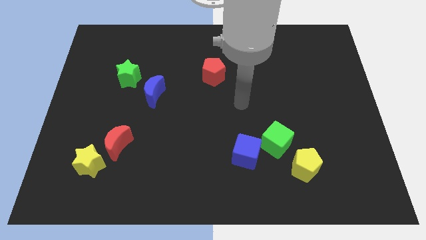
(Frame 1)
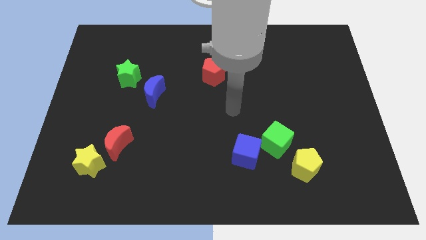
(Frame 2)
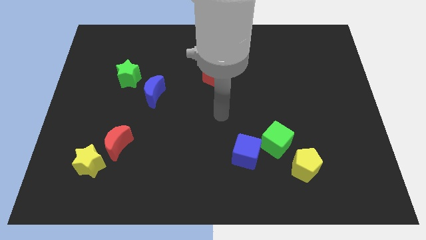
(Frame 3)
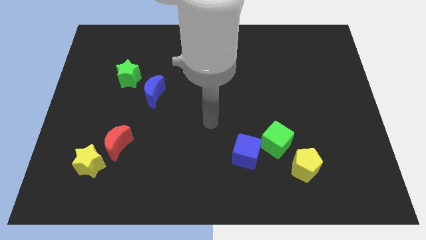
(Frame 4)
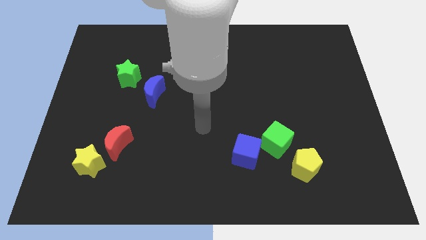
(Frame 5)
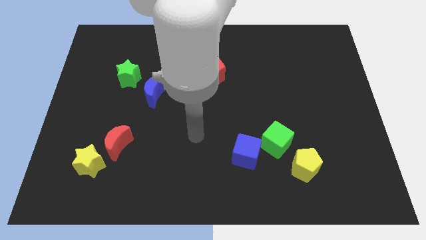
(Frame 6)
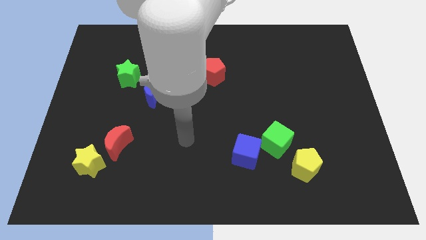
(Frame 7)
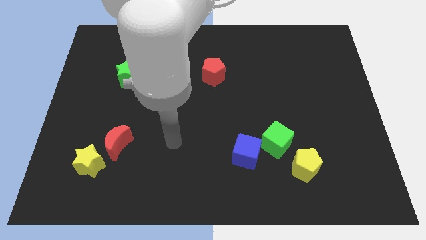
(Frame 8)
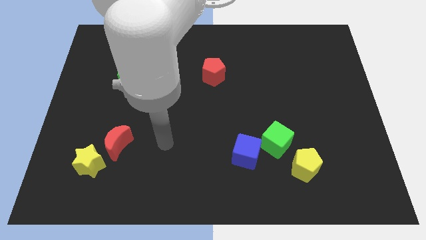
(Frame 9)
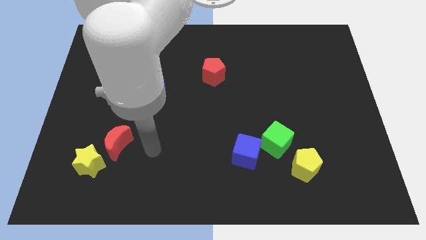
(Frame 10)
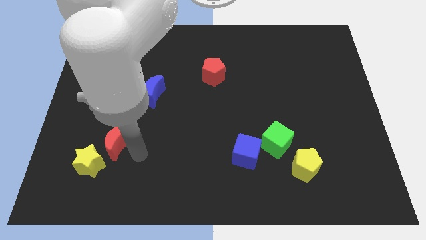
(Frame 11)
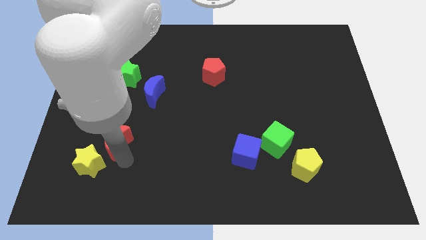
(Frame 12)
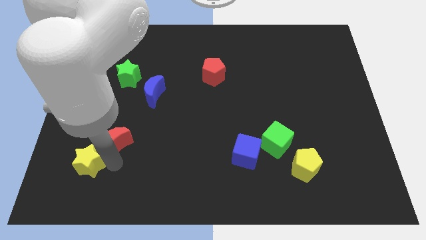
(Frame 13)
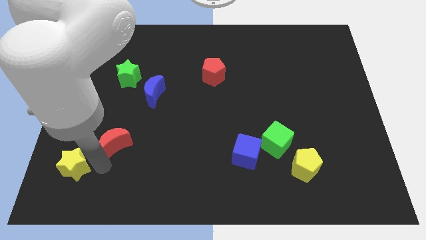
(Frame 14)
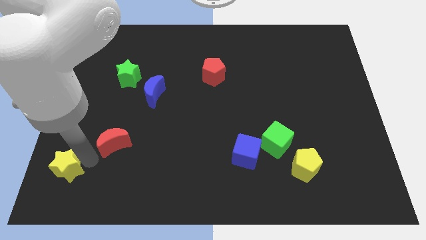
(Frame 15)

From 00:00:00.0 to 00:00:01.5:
pull the red moon apart from the yellow star

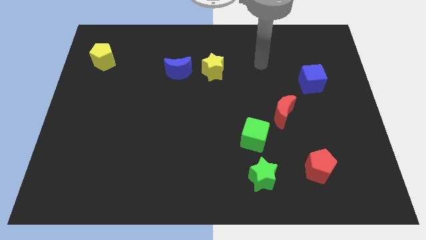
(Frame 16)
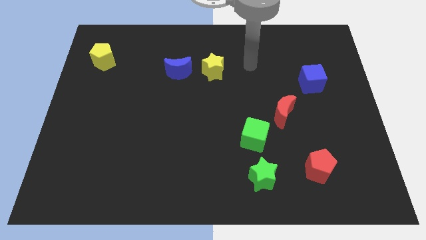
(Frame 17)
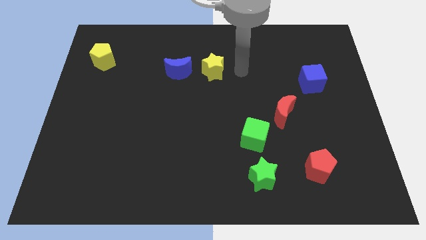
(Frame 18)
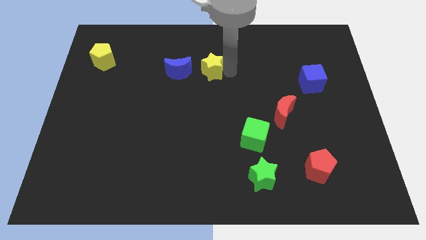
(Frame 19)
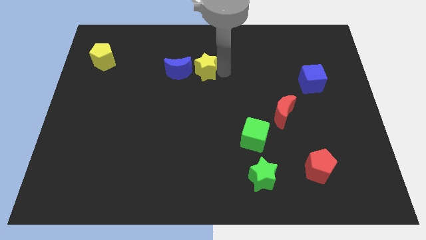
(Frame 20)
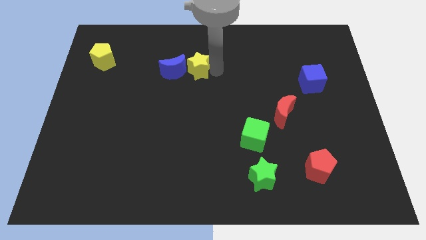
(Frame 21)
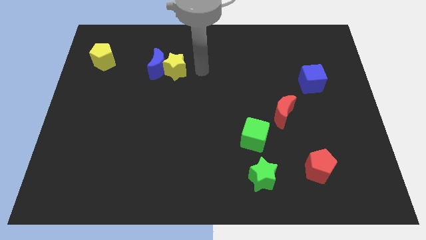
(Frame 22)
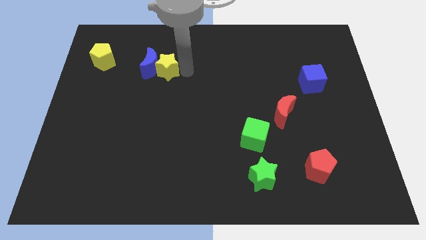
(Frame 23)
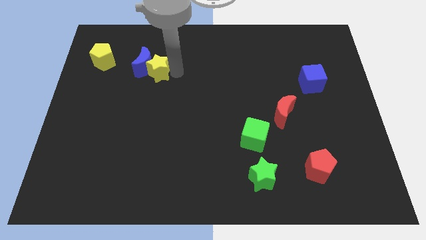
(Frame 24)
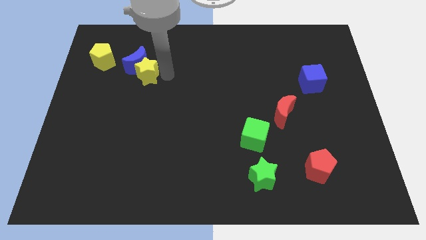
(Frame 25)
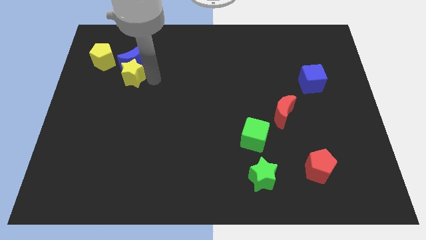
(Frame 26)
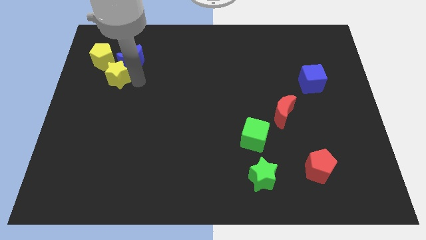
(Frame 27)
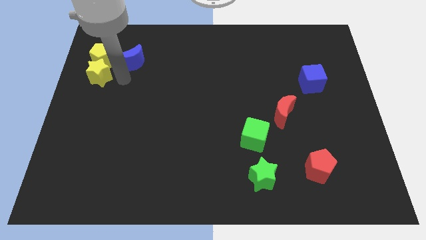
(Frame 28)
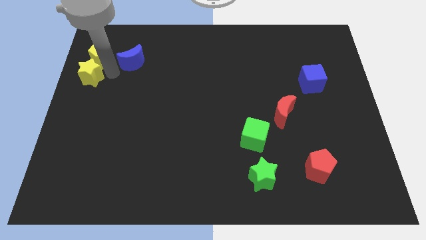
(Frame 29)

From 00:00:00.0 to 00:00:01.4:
separate the blue moon from the yellow star

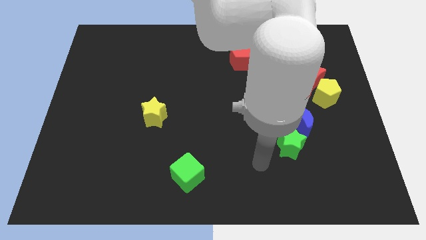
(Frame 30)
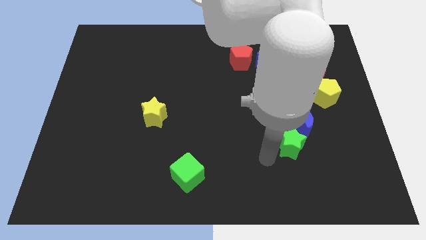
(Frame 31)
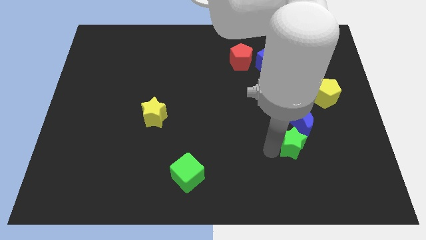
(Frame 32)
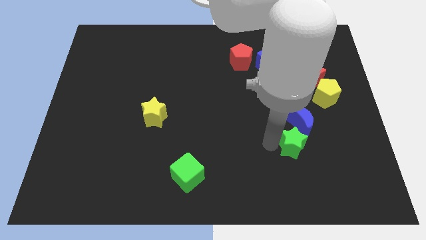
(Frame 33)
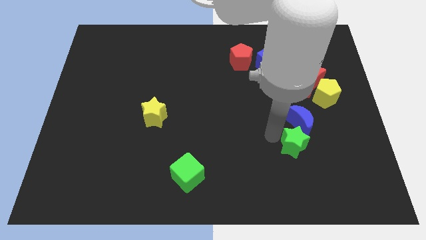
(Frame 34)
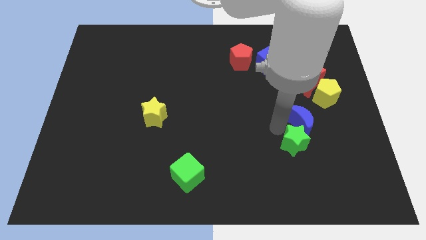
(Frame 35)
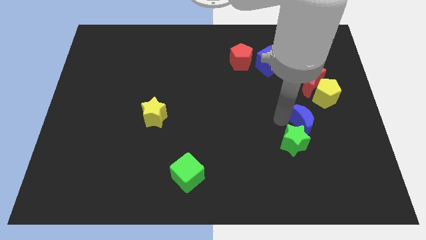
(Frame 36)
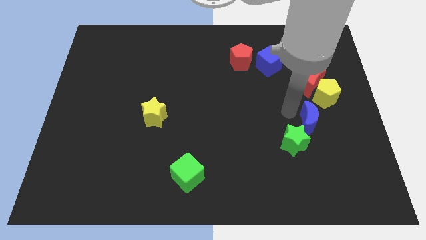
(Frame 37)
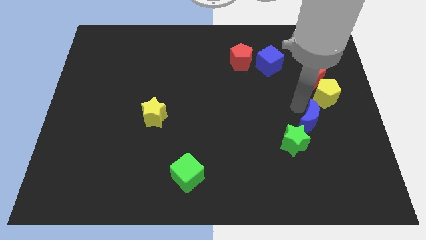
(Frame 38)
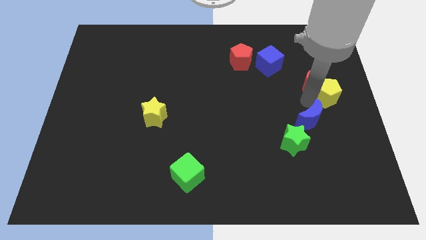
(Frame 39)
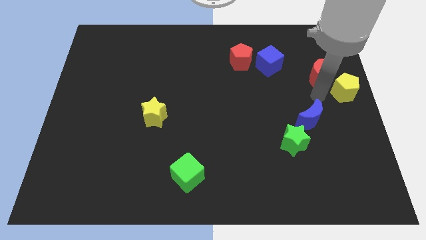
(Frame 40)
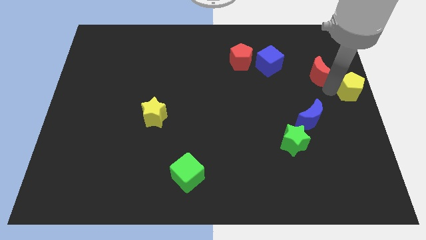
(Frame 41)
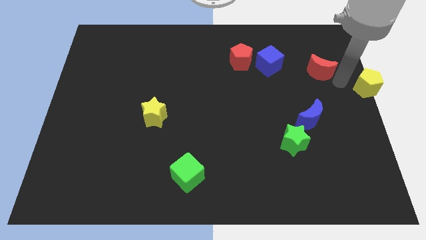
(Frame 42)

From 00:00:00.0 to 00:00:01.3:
move the red moon away from the yellow pentagon

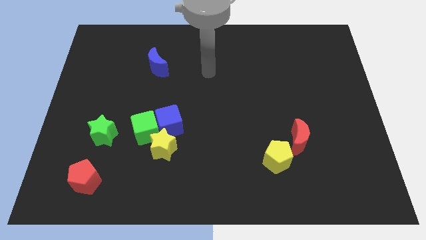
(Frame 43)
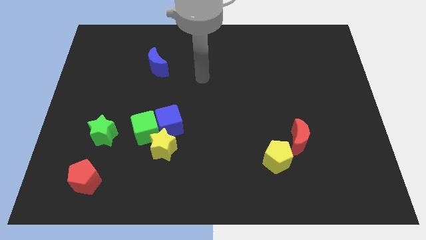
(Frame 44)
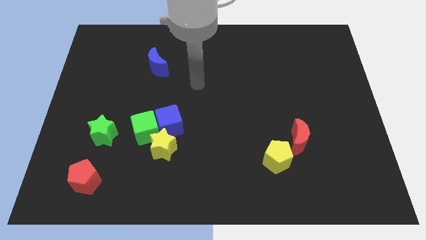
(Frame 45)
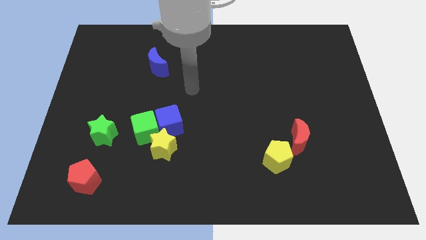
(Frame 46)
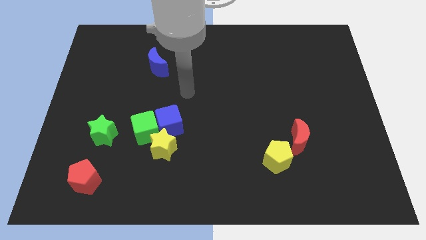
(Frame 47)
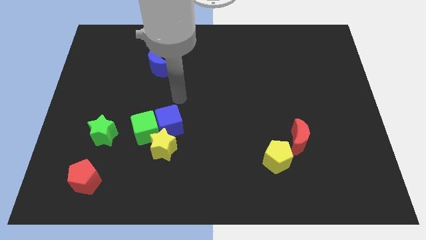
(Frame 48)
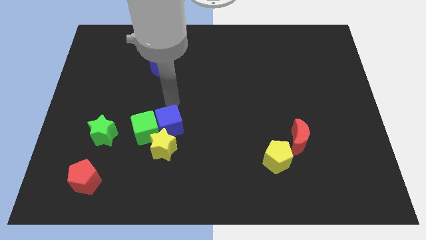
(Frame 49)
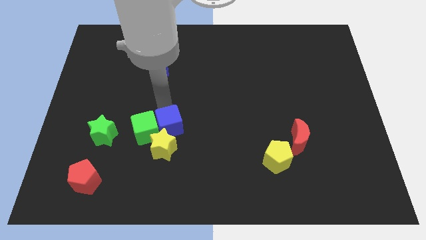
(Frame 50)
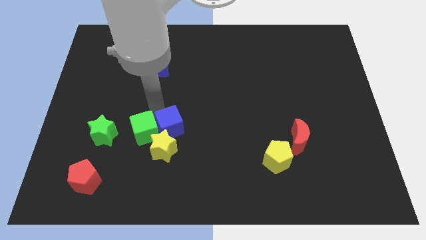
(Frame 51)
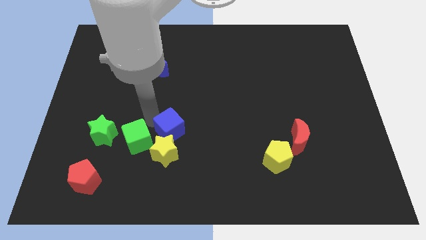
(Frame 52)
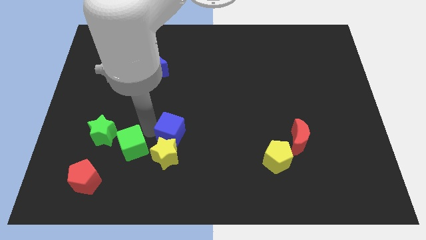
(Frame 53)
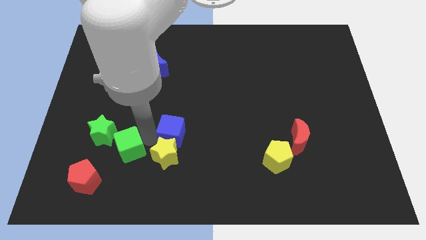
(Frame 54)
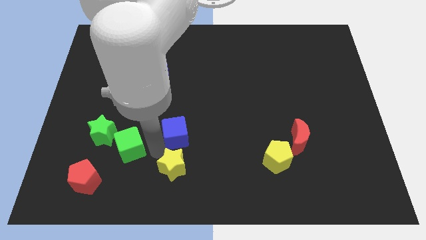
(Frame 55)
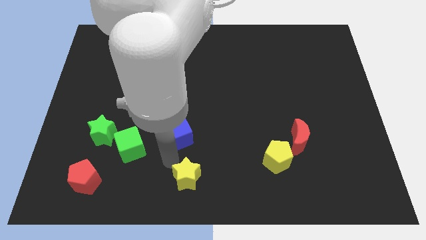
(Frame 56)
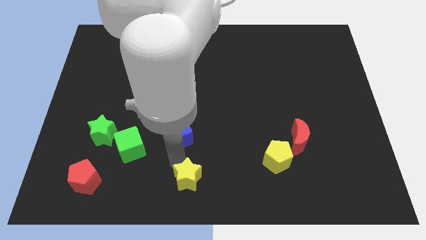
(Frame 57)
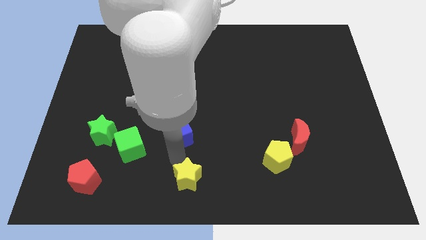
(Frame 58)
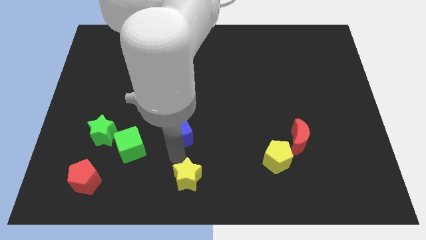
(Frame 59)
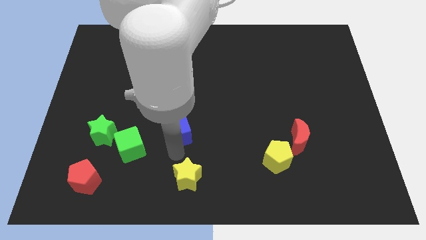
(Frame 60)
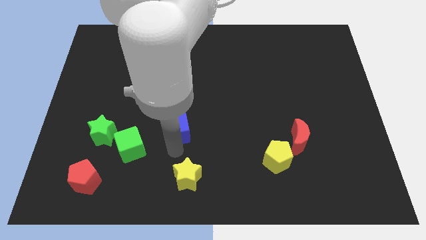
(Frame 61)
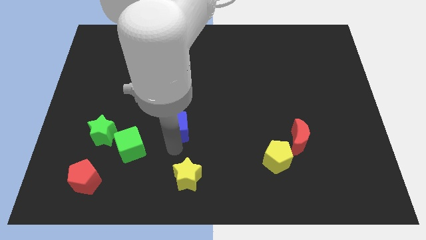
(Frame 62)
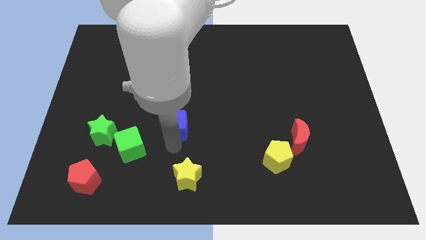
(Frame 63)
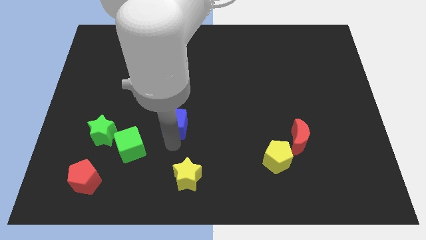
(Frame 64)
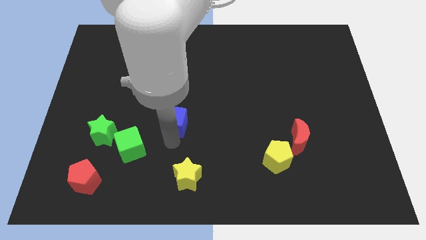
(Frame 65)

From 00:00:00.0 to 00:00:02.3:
pull the blue cube apart from the green cube and yellow star

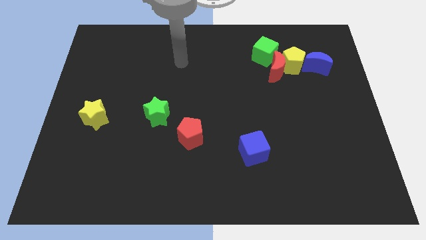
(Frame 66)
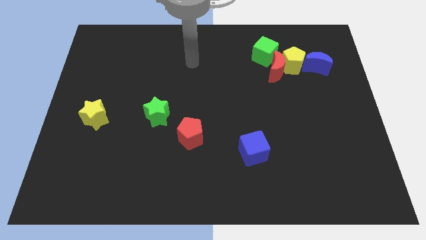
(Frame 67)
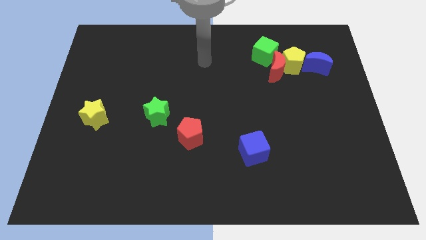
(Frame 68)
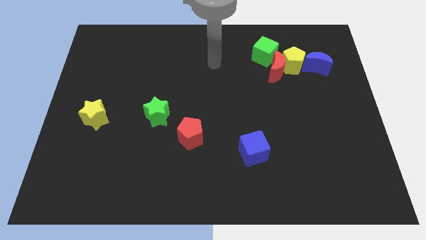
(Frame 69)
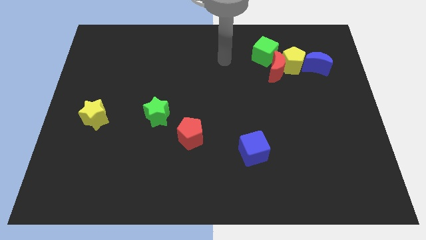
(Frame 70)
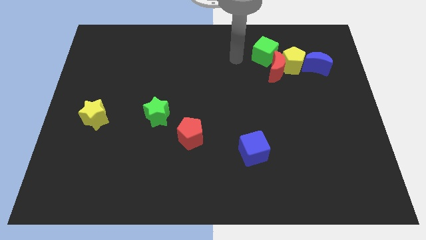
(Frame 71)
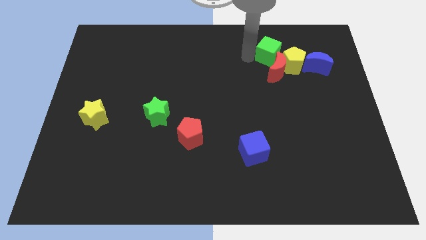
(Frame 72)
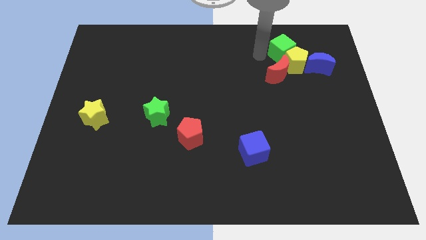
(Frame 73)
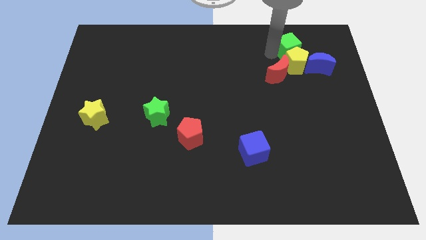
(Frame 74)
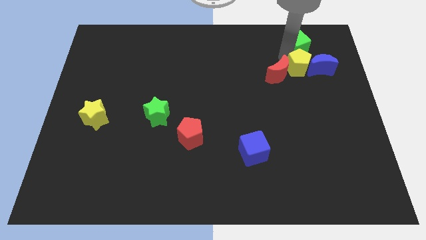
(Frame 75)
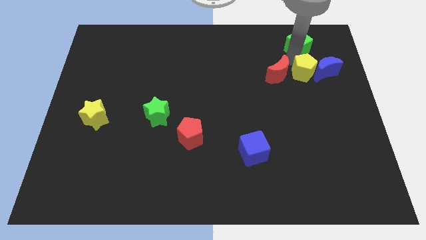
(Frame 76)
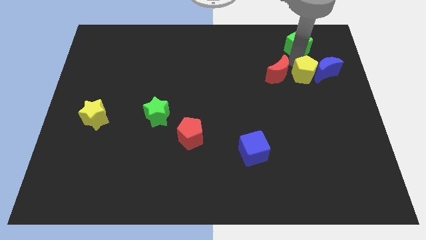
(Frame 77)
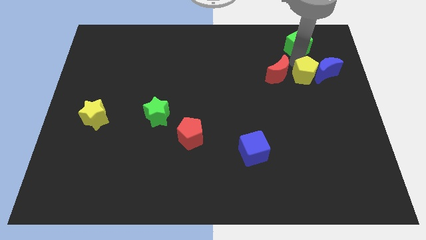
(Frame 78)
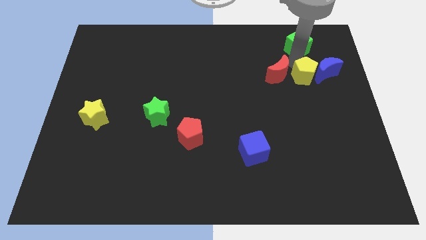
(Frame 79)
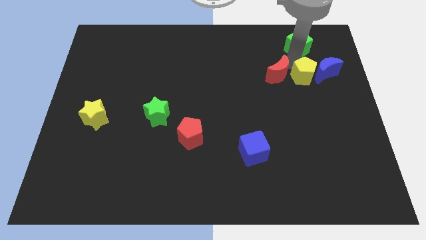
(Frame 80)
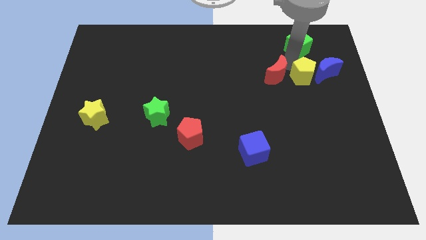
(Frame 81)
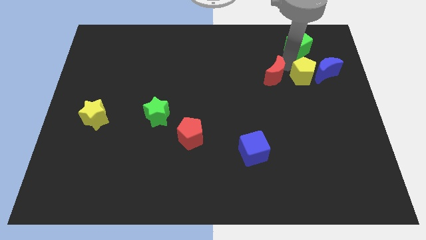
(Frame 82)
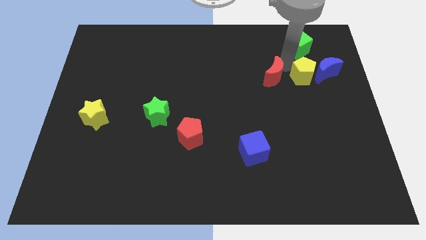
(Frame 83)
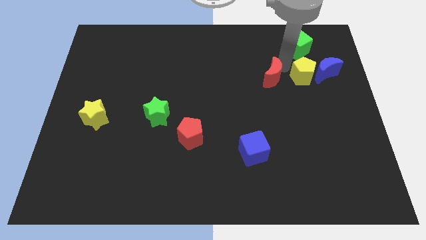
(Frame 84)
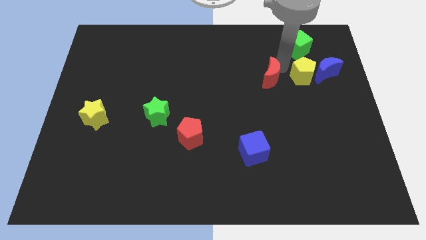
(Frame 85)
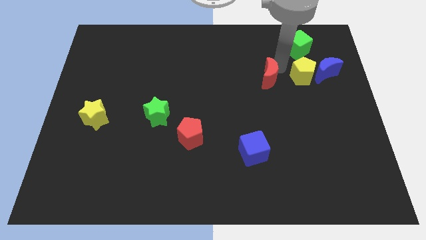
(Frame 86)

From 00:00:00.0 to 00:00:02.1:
separate the red moon from the yellow pentagon and green cube

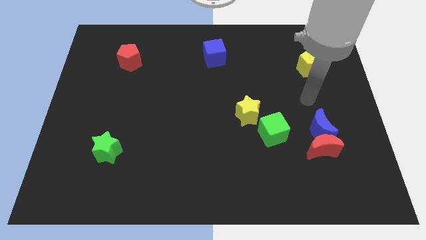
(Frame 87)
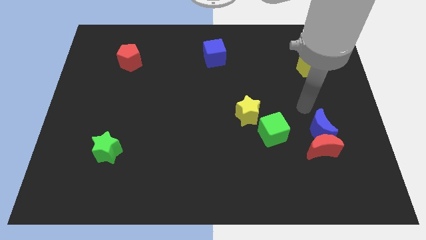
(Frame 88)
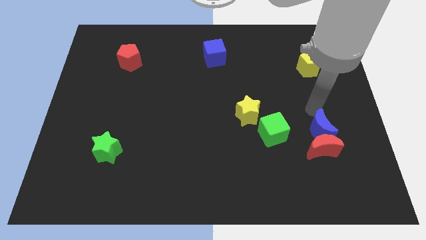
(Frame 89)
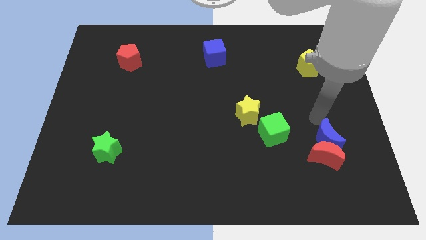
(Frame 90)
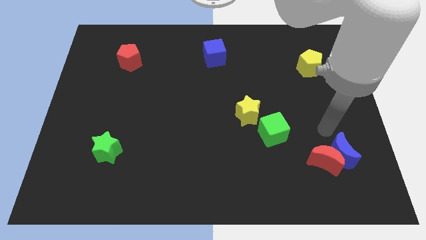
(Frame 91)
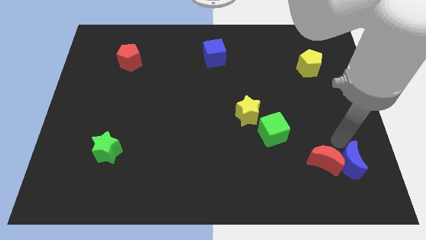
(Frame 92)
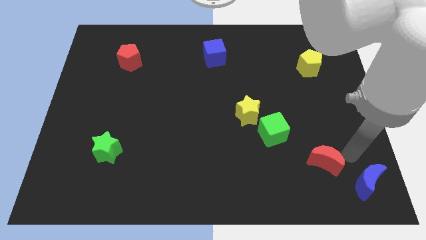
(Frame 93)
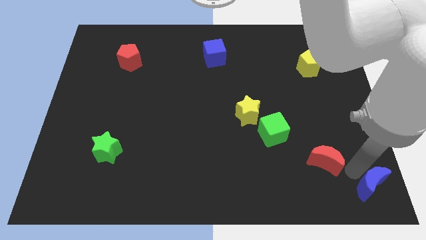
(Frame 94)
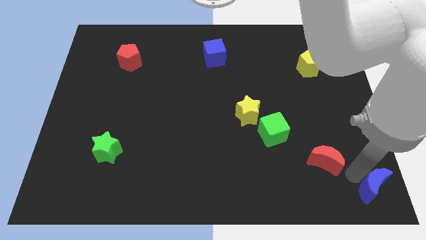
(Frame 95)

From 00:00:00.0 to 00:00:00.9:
move the red moon away from the blue moon
